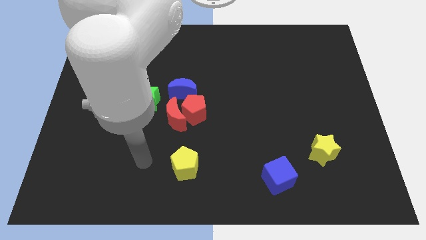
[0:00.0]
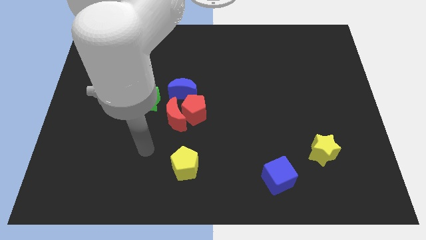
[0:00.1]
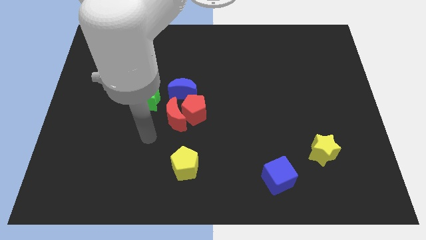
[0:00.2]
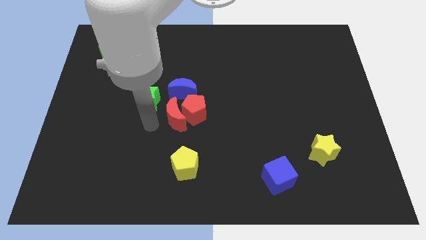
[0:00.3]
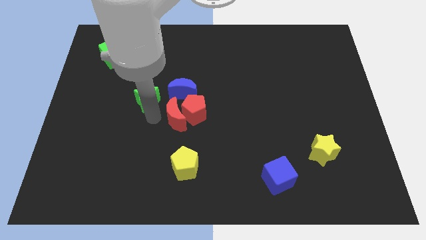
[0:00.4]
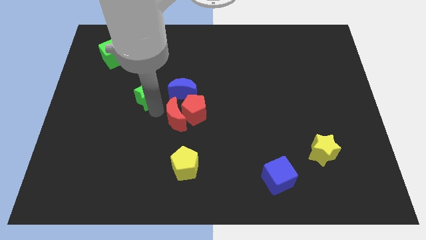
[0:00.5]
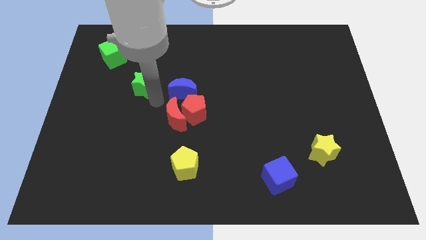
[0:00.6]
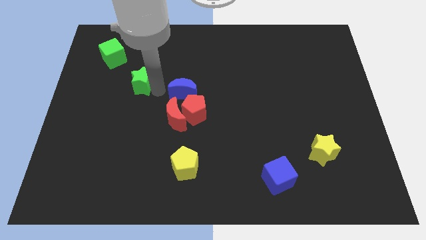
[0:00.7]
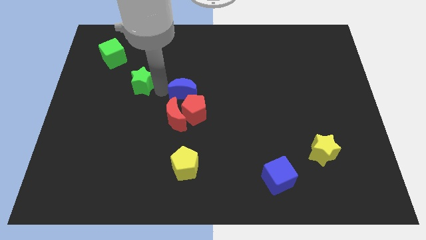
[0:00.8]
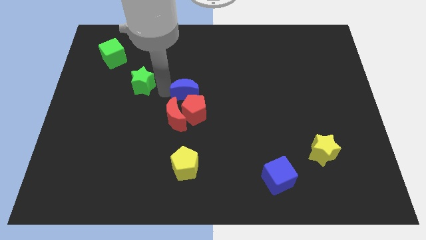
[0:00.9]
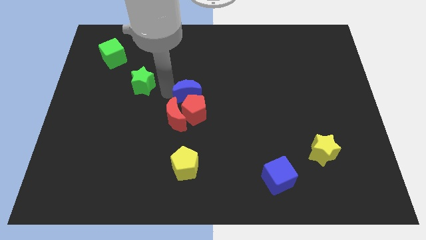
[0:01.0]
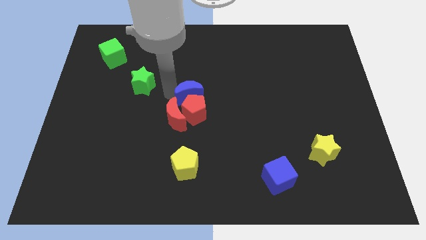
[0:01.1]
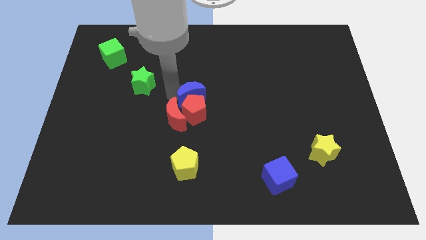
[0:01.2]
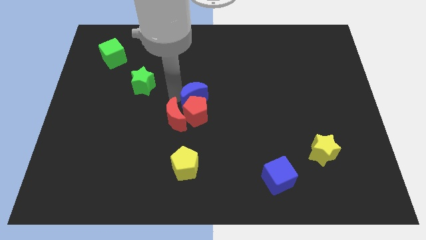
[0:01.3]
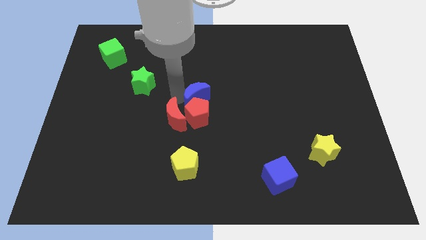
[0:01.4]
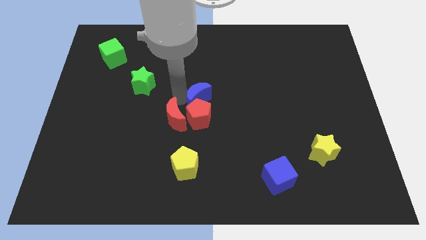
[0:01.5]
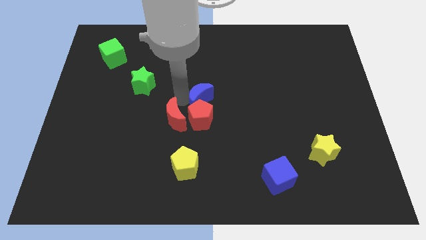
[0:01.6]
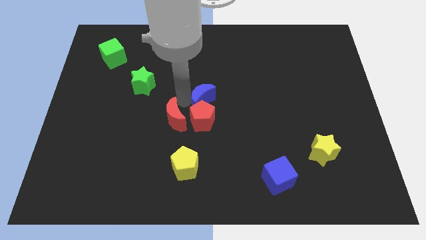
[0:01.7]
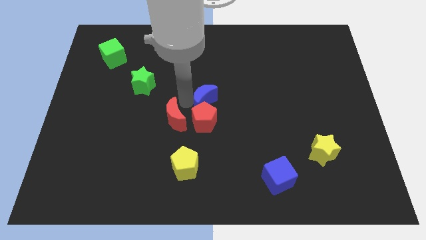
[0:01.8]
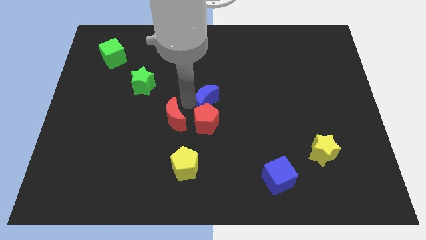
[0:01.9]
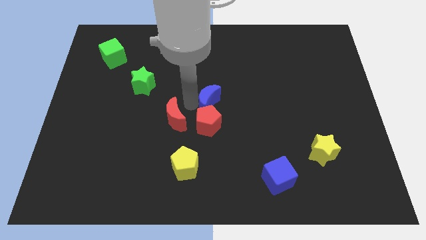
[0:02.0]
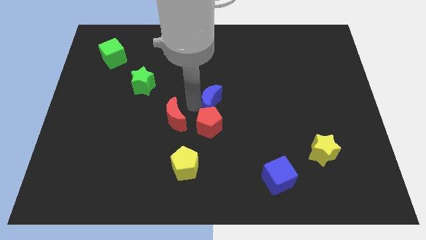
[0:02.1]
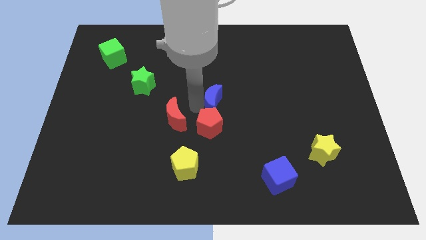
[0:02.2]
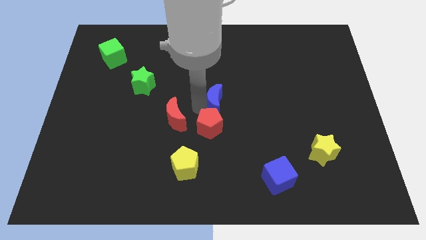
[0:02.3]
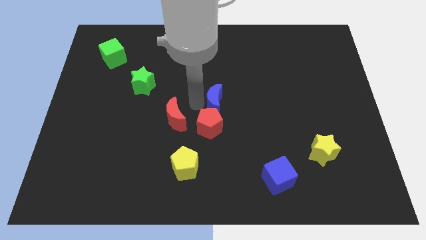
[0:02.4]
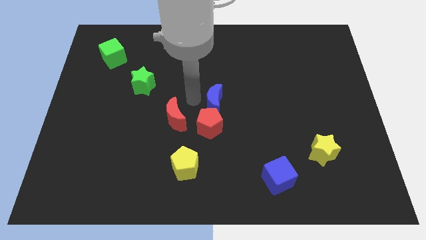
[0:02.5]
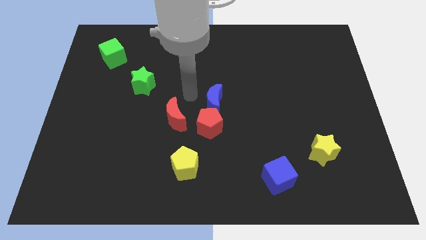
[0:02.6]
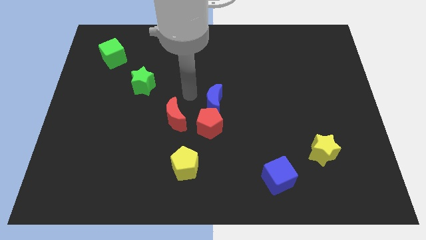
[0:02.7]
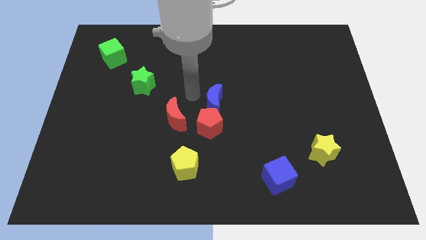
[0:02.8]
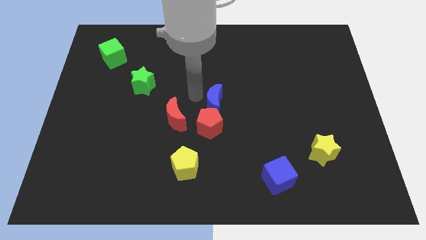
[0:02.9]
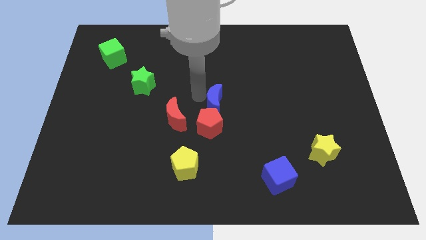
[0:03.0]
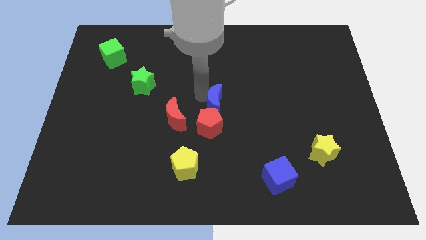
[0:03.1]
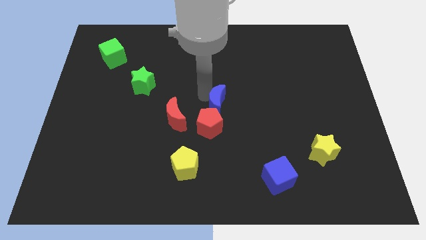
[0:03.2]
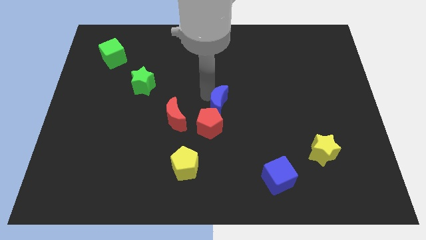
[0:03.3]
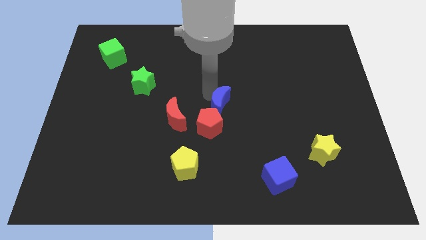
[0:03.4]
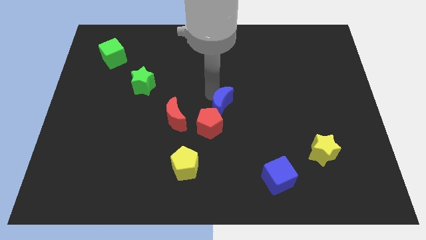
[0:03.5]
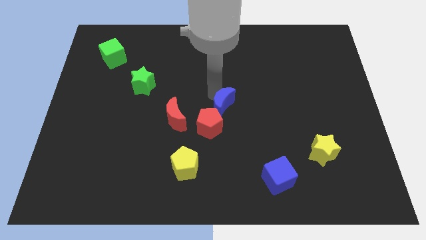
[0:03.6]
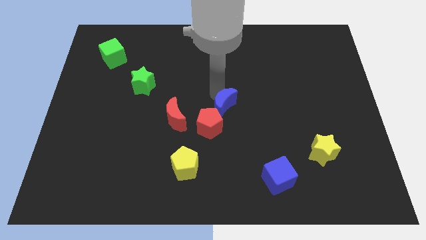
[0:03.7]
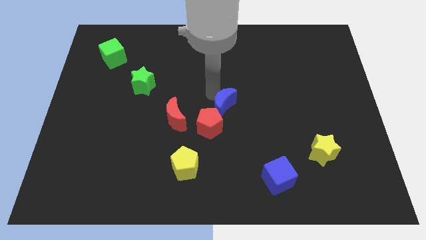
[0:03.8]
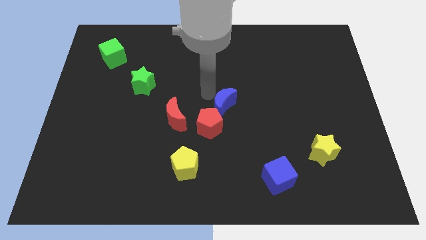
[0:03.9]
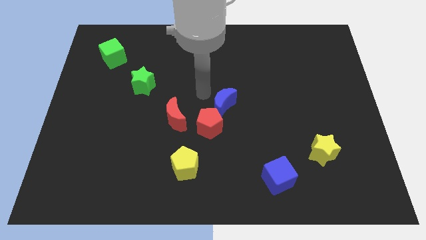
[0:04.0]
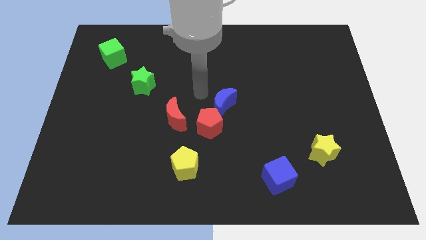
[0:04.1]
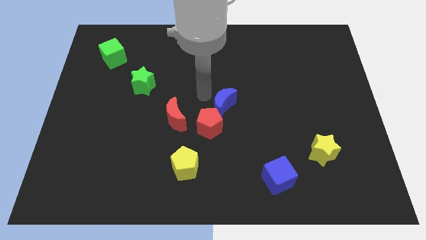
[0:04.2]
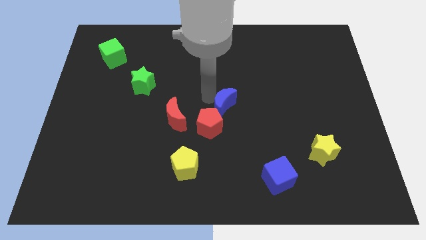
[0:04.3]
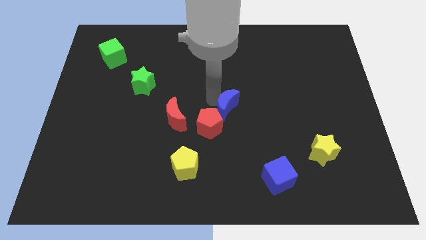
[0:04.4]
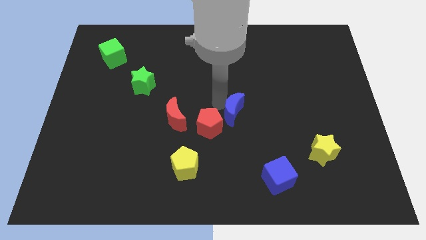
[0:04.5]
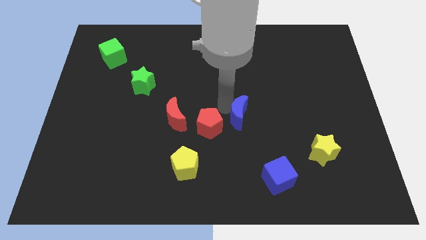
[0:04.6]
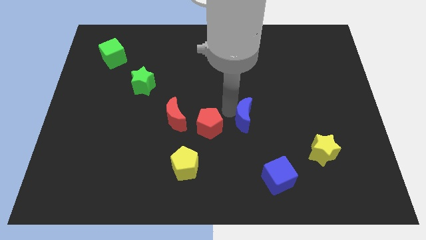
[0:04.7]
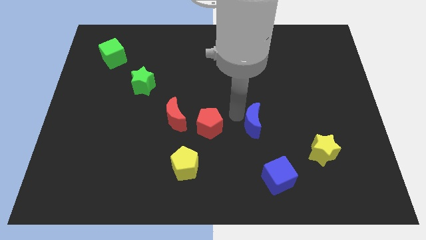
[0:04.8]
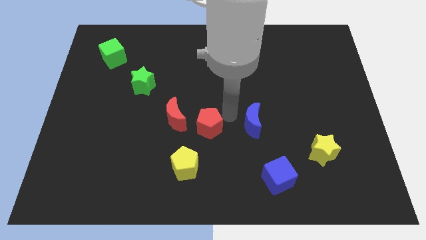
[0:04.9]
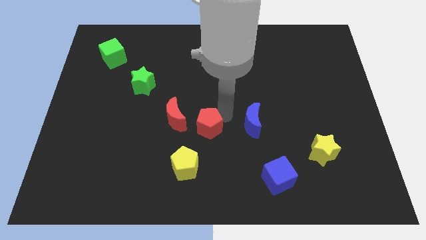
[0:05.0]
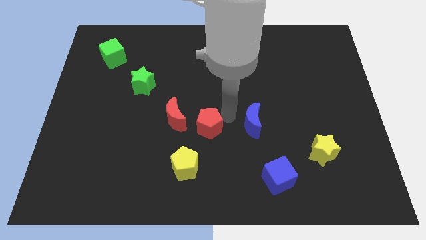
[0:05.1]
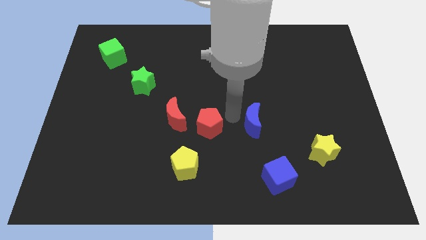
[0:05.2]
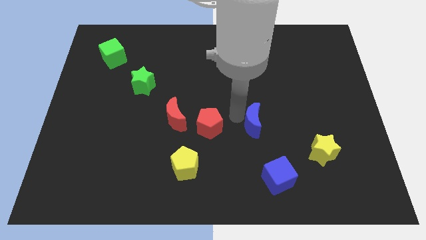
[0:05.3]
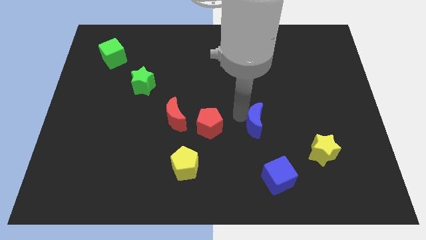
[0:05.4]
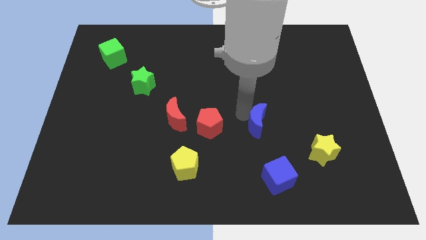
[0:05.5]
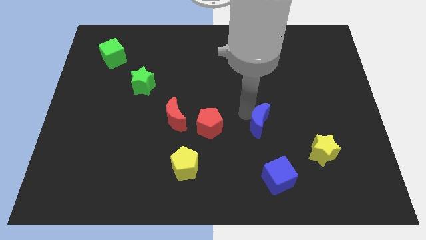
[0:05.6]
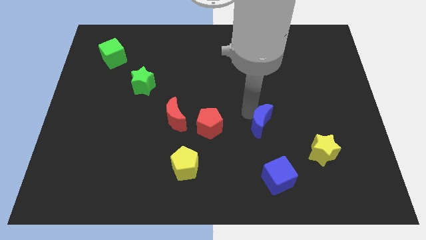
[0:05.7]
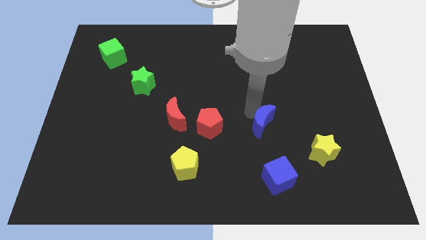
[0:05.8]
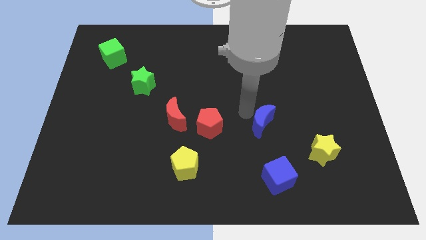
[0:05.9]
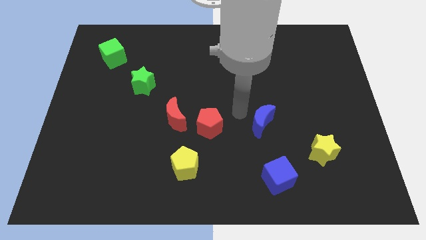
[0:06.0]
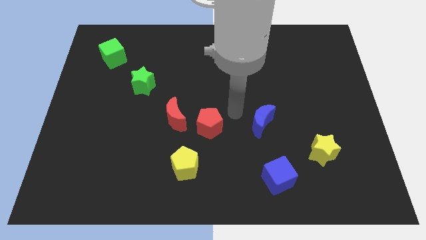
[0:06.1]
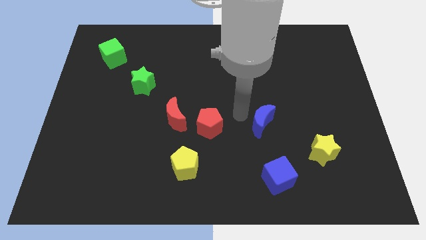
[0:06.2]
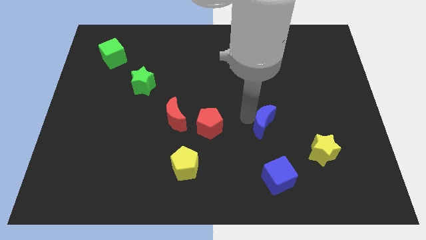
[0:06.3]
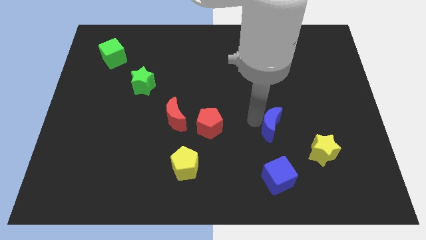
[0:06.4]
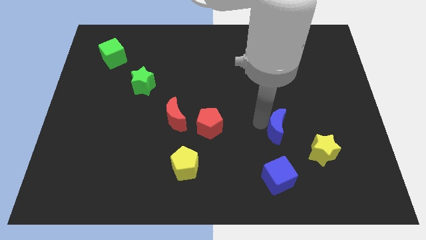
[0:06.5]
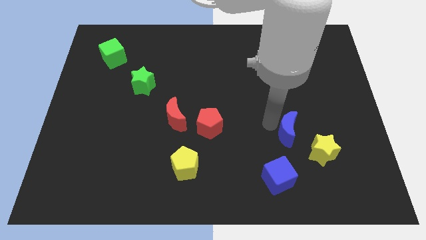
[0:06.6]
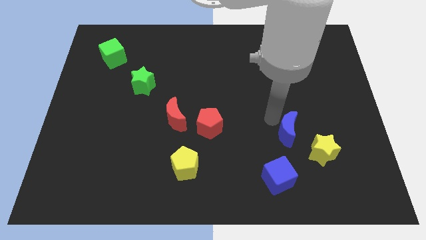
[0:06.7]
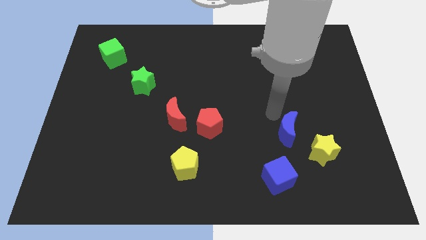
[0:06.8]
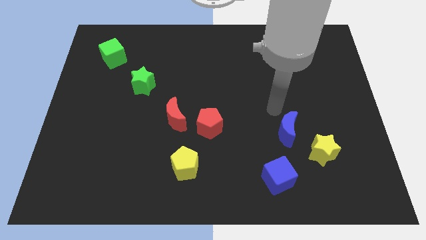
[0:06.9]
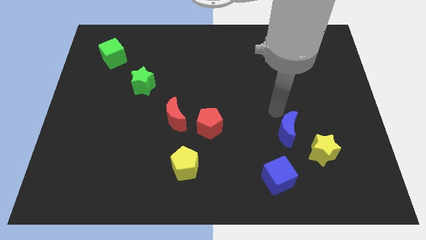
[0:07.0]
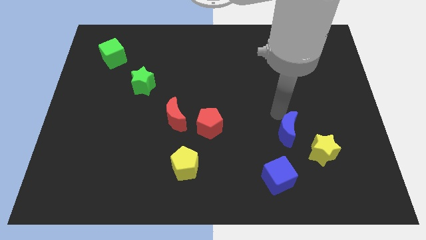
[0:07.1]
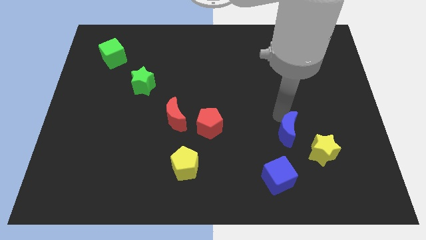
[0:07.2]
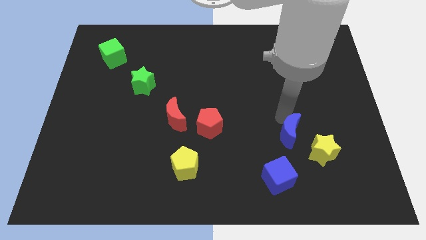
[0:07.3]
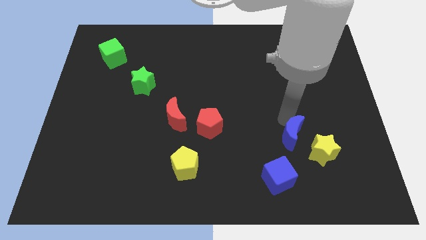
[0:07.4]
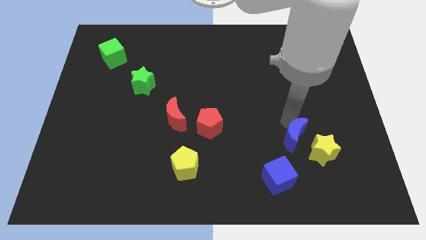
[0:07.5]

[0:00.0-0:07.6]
put the blue moon to the top right side of the blue cube
